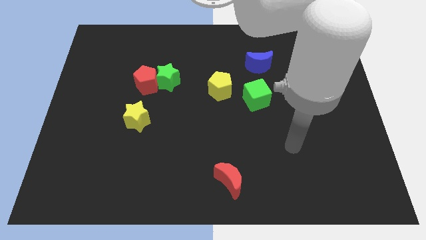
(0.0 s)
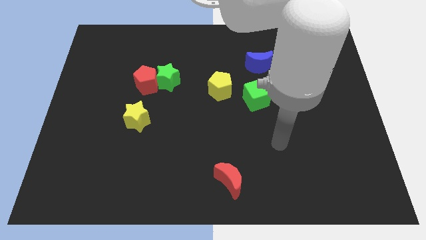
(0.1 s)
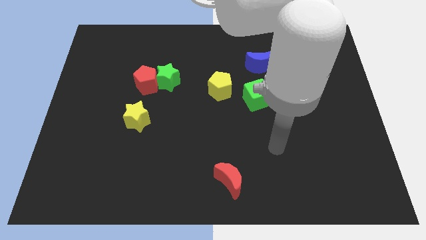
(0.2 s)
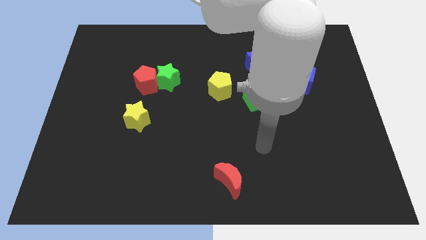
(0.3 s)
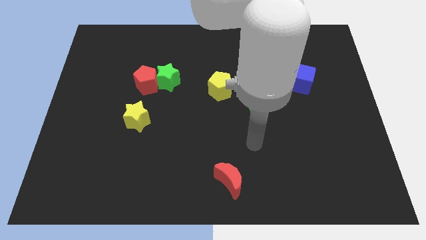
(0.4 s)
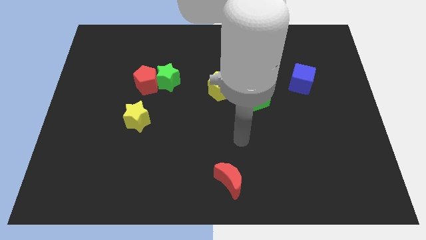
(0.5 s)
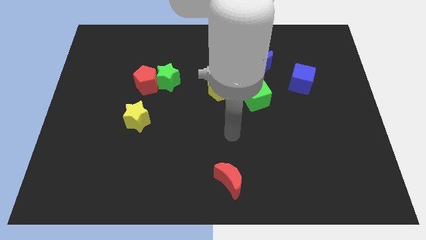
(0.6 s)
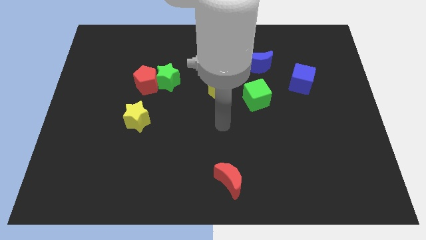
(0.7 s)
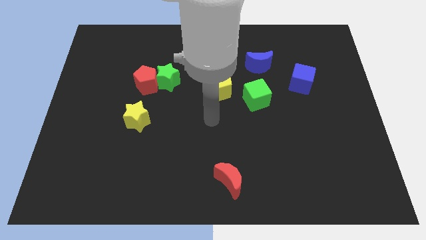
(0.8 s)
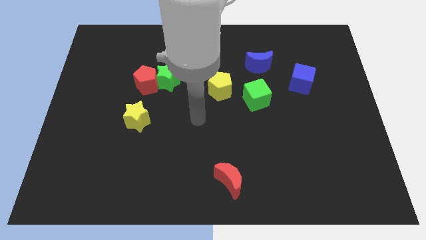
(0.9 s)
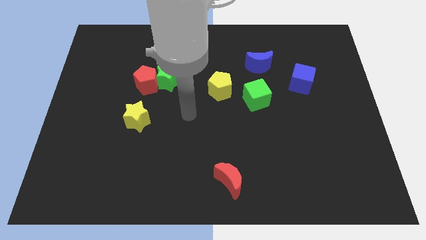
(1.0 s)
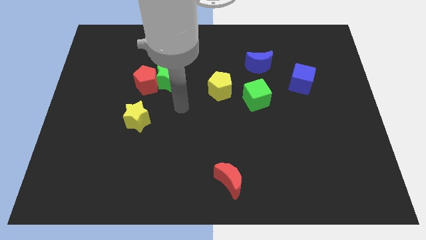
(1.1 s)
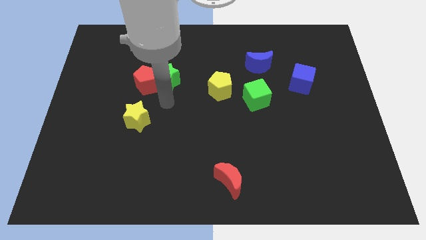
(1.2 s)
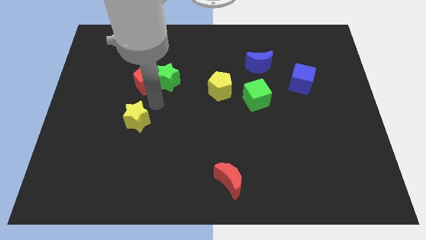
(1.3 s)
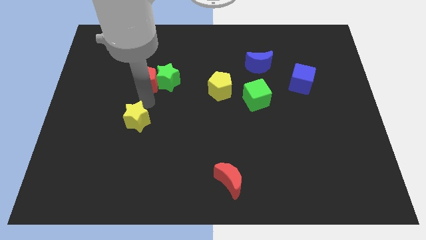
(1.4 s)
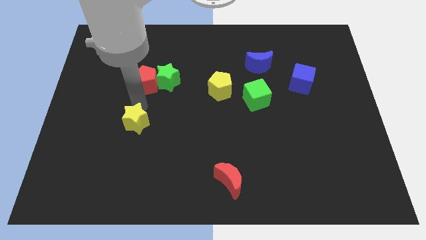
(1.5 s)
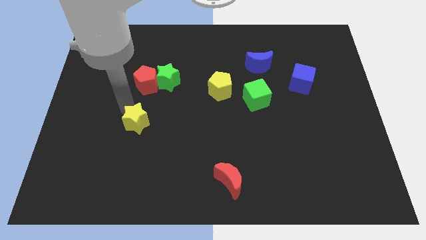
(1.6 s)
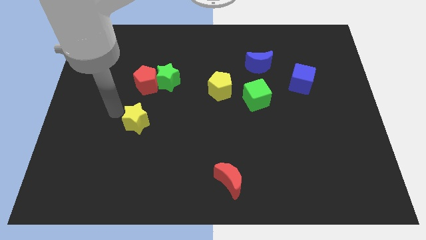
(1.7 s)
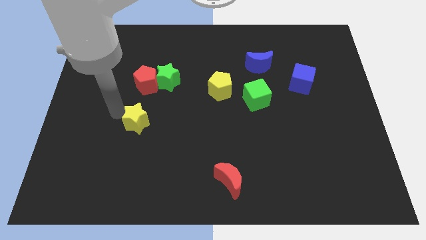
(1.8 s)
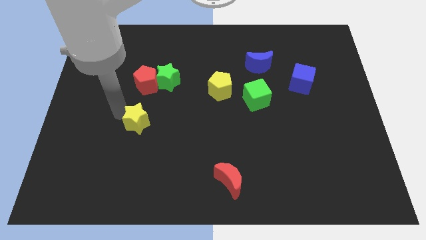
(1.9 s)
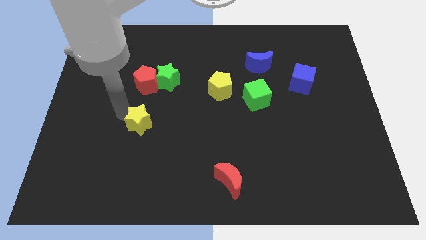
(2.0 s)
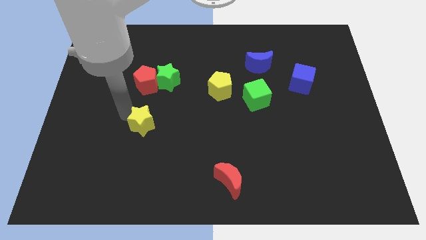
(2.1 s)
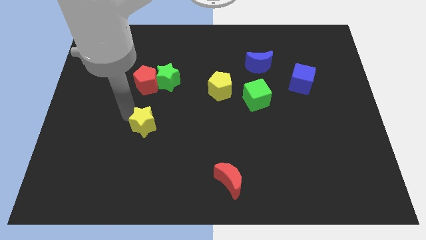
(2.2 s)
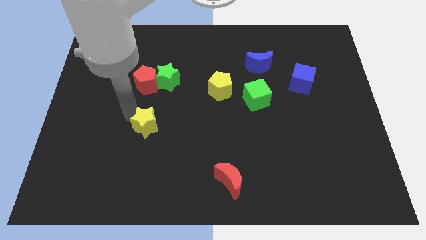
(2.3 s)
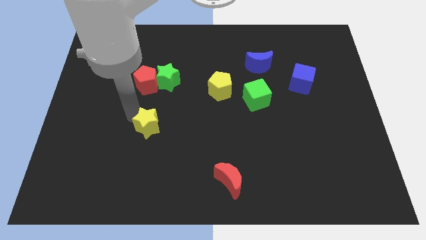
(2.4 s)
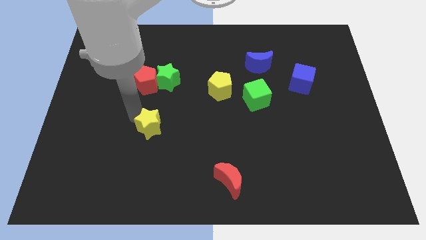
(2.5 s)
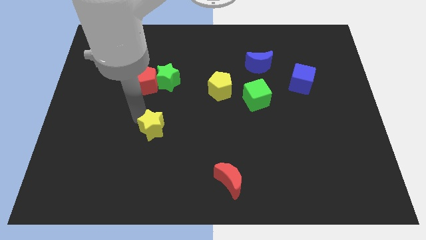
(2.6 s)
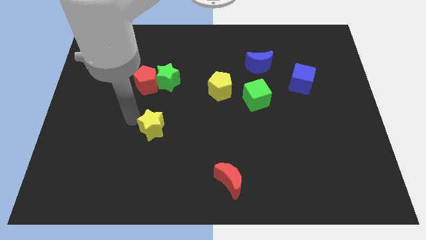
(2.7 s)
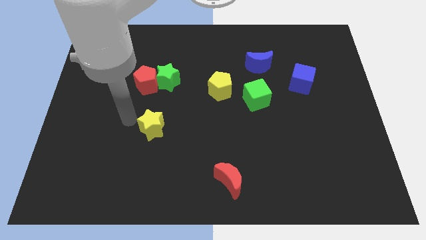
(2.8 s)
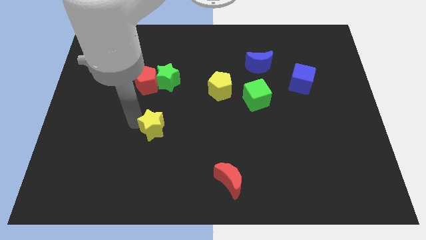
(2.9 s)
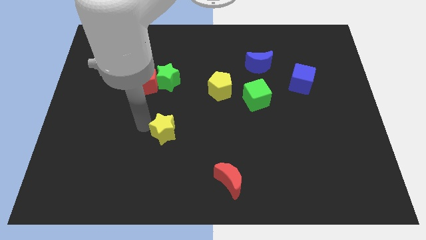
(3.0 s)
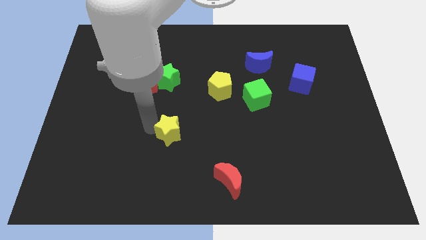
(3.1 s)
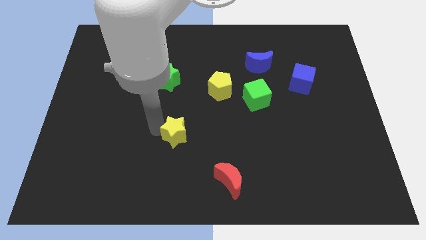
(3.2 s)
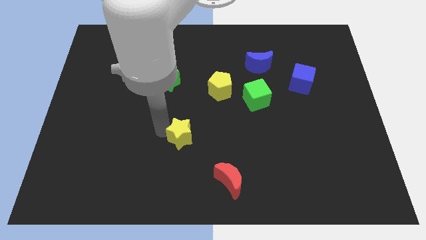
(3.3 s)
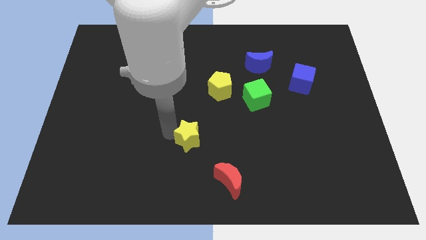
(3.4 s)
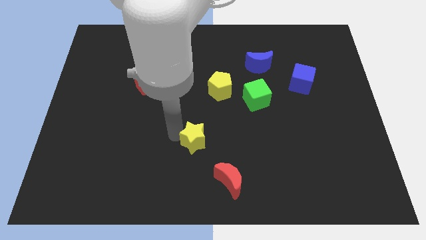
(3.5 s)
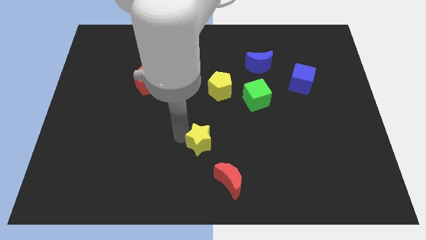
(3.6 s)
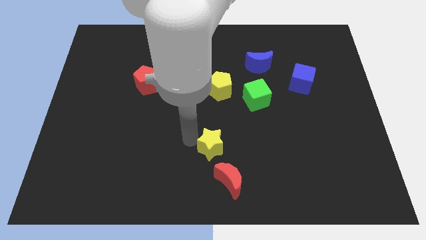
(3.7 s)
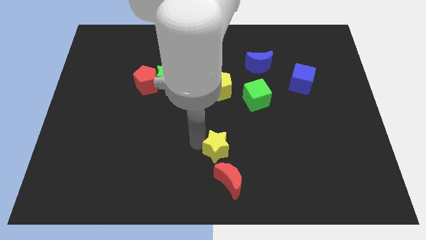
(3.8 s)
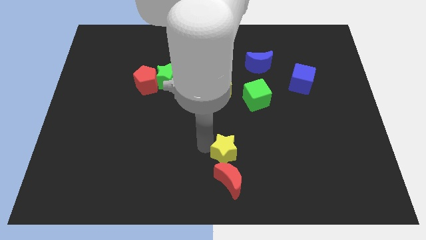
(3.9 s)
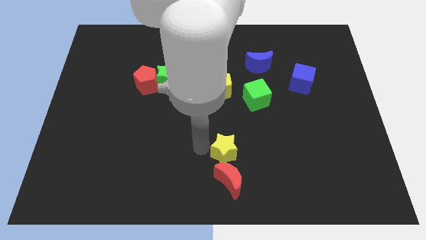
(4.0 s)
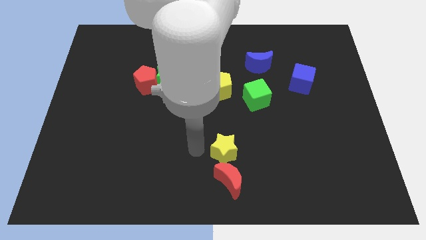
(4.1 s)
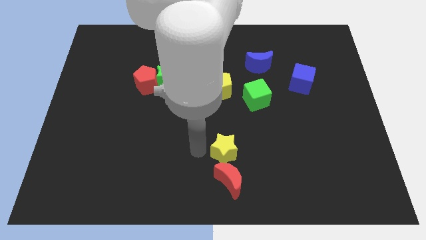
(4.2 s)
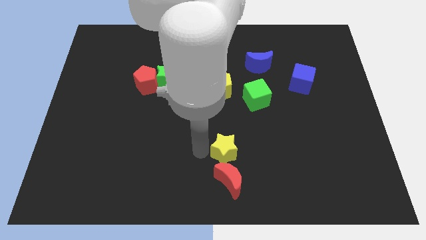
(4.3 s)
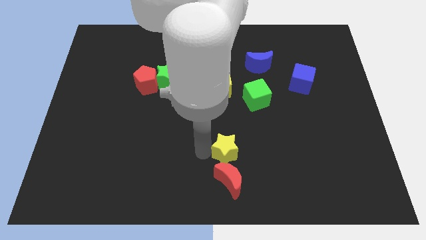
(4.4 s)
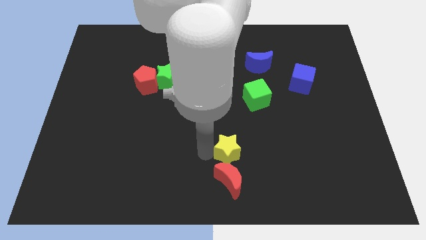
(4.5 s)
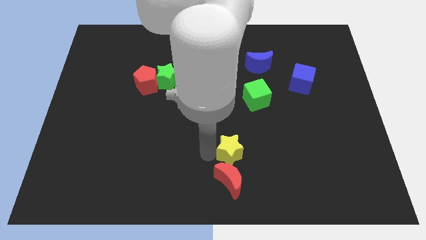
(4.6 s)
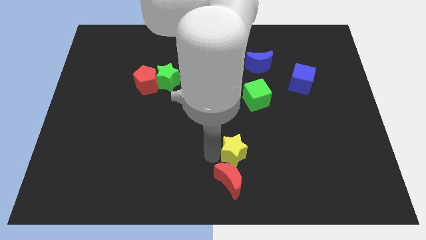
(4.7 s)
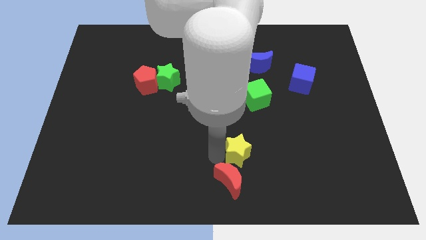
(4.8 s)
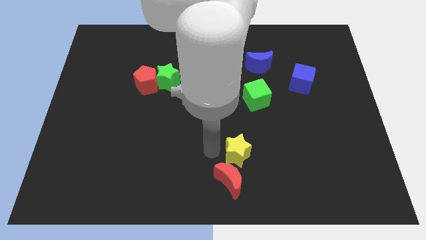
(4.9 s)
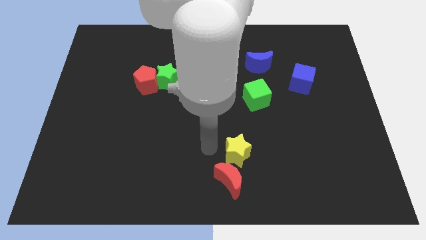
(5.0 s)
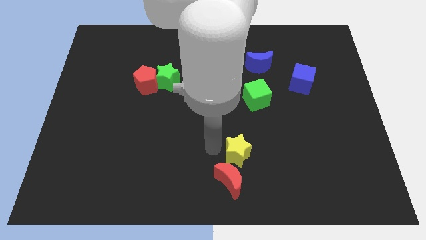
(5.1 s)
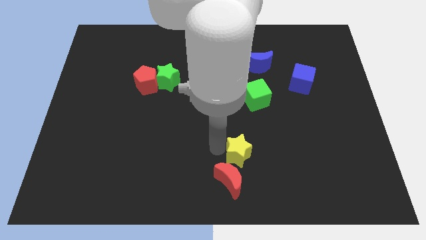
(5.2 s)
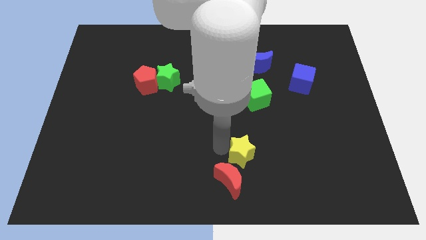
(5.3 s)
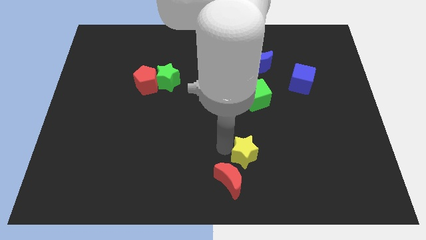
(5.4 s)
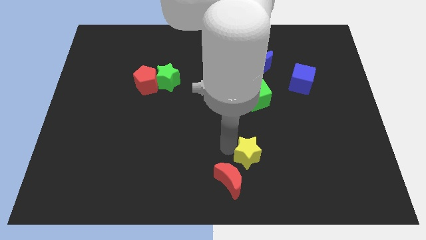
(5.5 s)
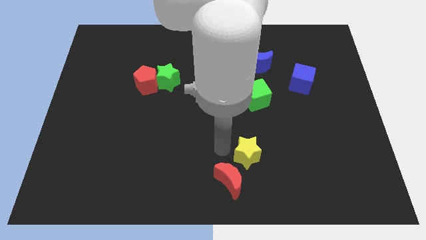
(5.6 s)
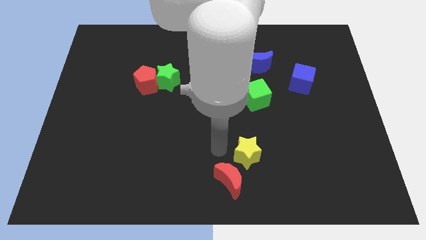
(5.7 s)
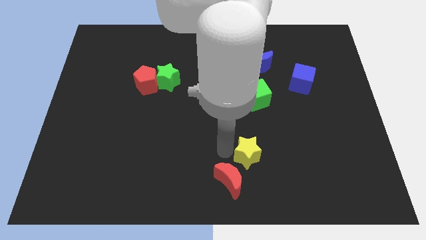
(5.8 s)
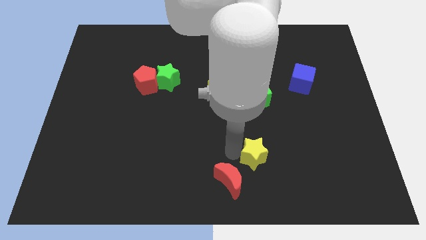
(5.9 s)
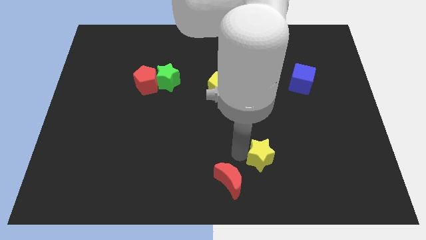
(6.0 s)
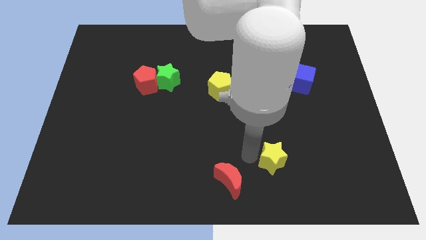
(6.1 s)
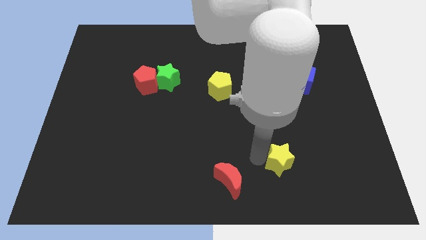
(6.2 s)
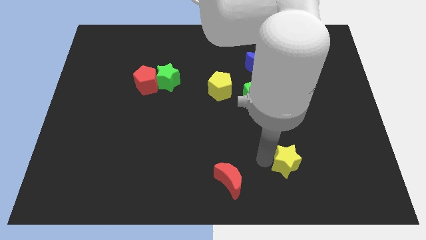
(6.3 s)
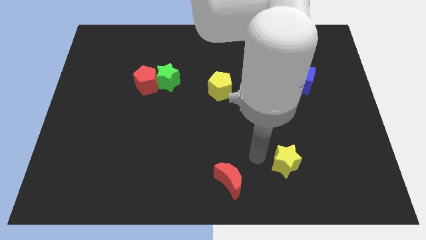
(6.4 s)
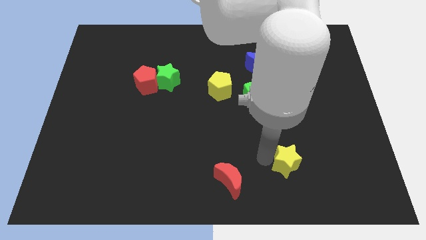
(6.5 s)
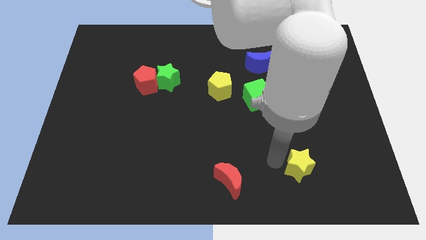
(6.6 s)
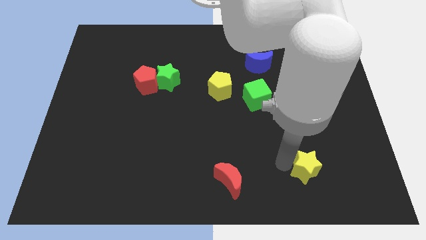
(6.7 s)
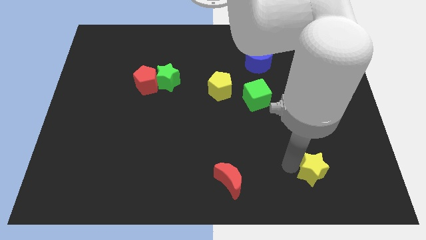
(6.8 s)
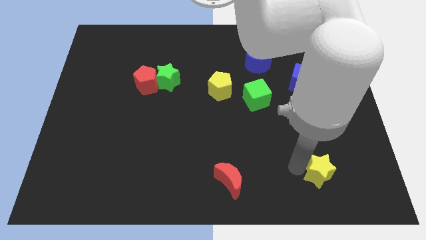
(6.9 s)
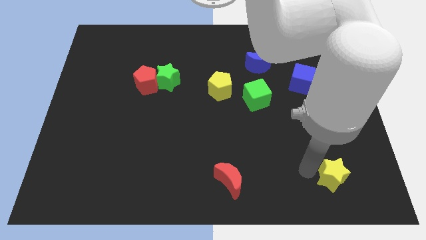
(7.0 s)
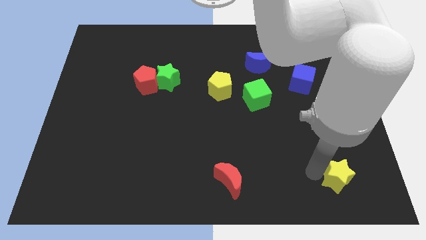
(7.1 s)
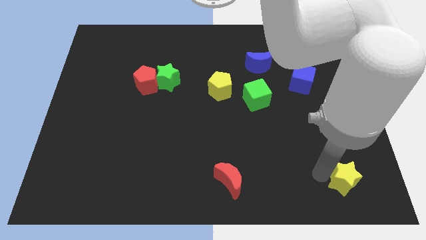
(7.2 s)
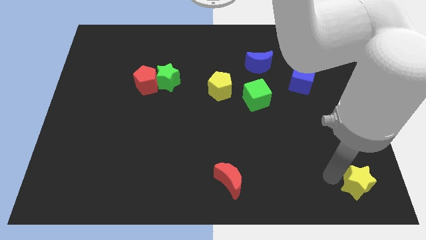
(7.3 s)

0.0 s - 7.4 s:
slide the yellow star to the bottom right corner

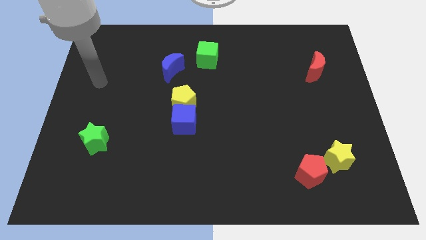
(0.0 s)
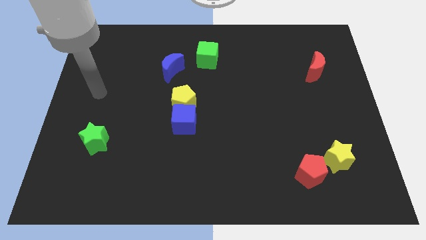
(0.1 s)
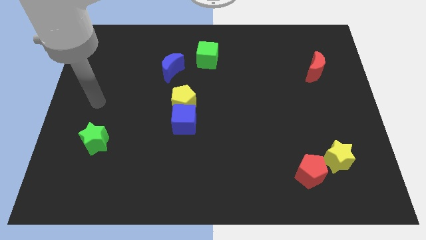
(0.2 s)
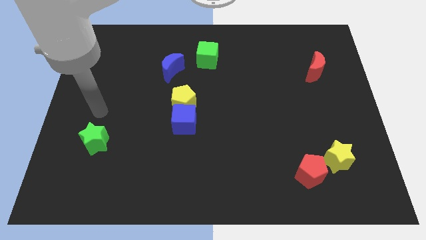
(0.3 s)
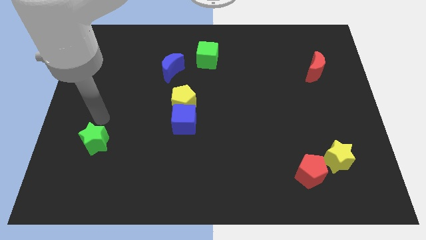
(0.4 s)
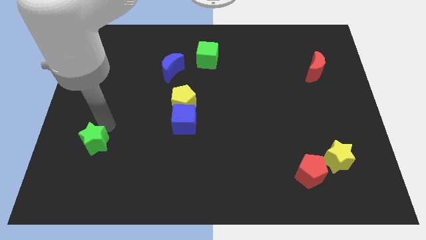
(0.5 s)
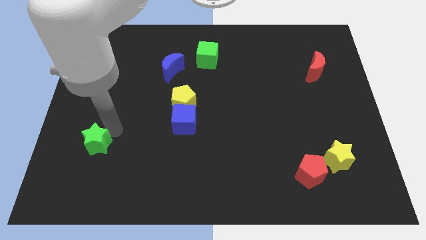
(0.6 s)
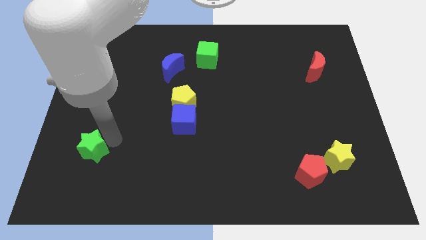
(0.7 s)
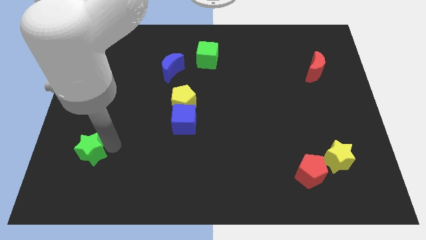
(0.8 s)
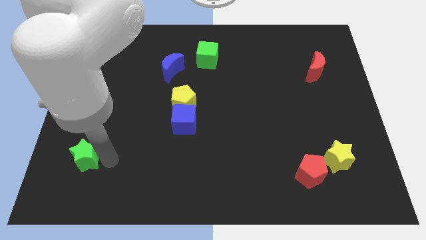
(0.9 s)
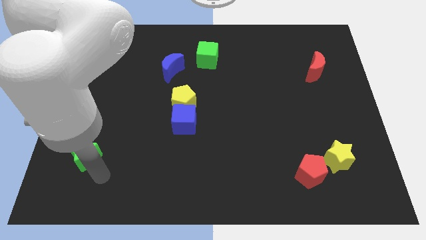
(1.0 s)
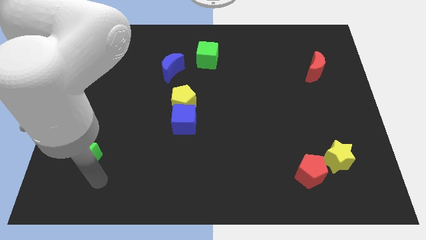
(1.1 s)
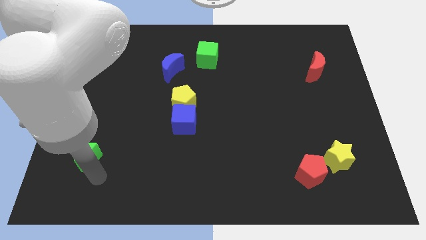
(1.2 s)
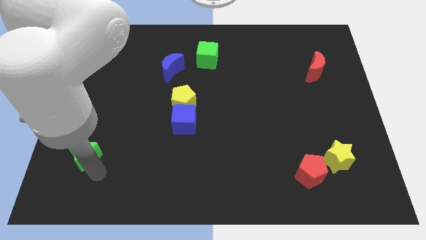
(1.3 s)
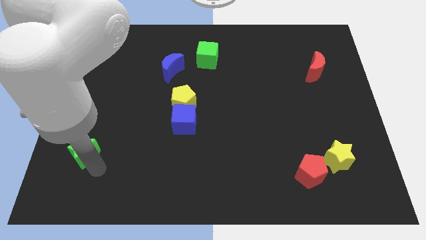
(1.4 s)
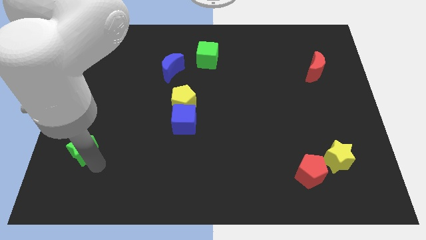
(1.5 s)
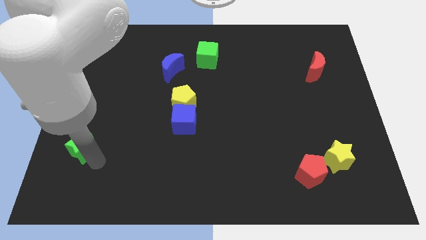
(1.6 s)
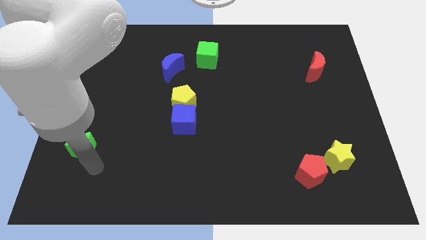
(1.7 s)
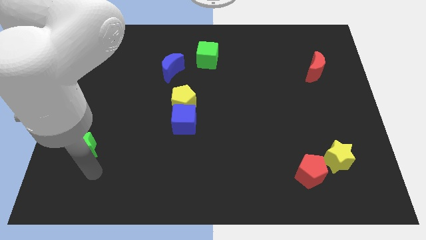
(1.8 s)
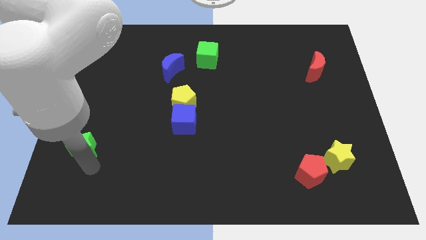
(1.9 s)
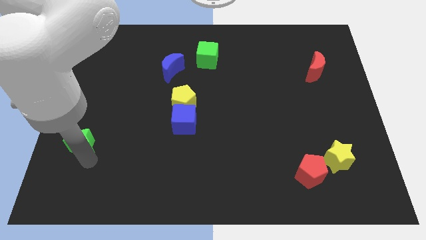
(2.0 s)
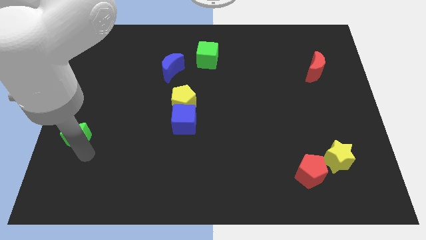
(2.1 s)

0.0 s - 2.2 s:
put the green star to the center left
